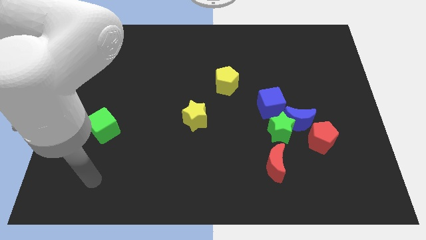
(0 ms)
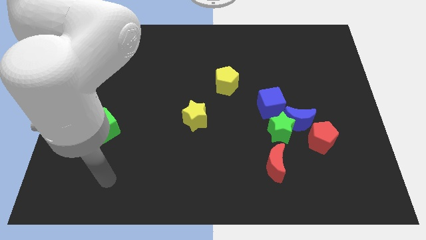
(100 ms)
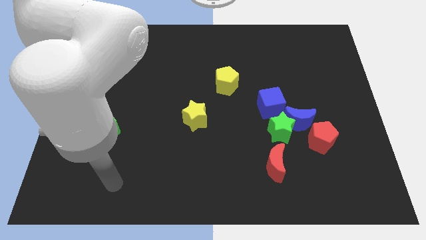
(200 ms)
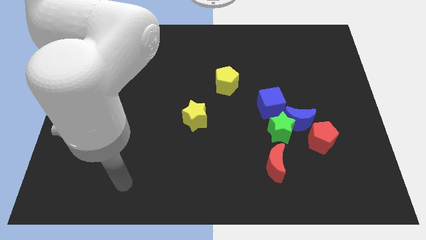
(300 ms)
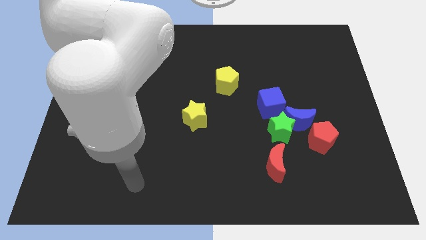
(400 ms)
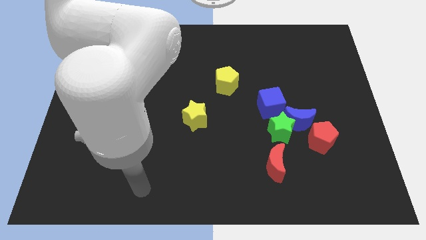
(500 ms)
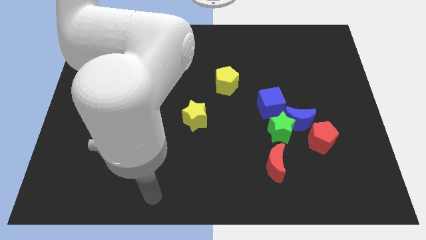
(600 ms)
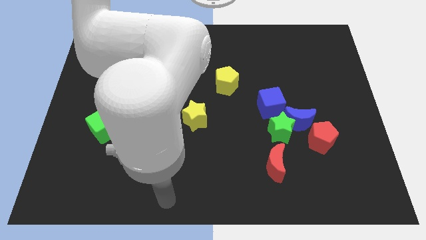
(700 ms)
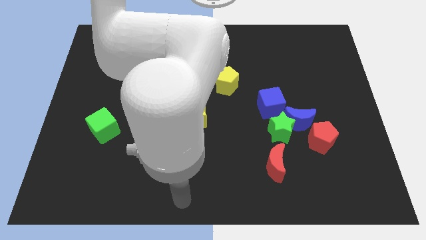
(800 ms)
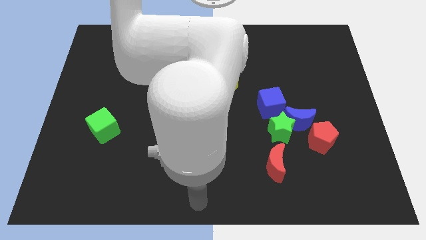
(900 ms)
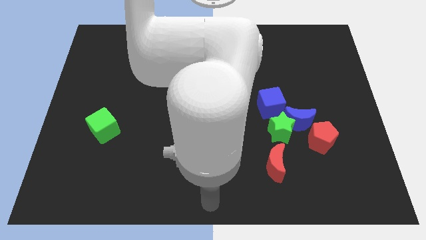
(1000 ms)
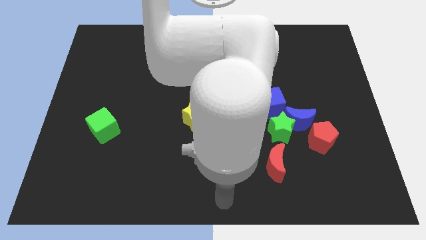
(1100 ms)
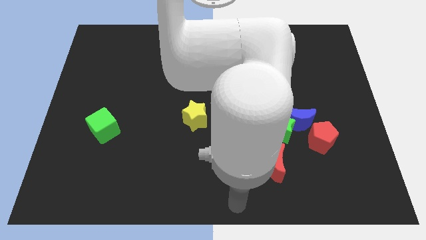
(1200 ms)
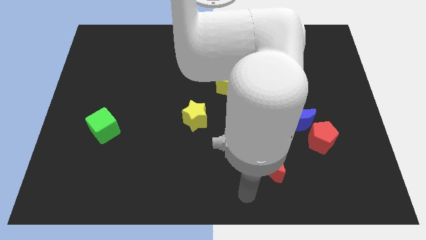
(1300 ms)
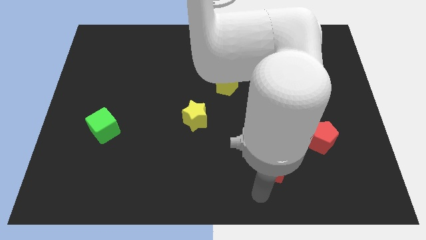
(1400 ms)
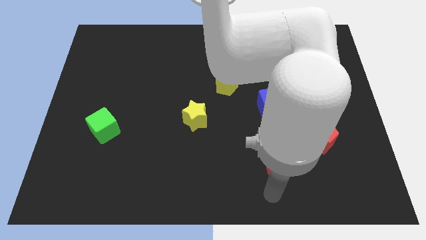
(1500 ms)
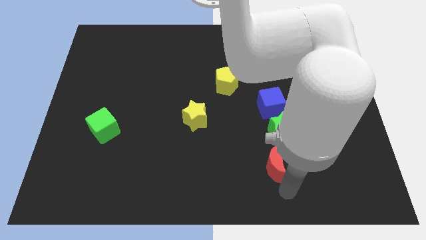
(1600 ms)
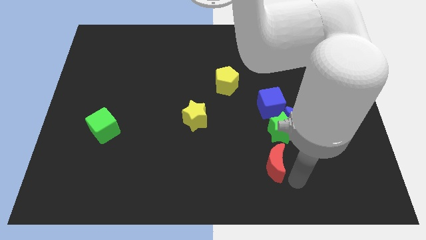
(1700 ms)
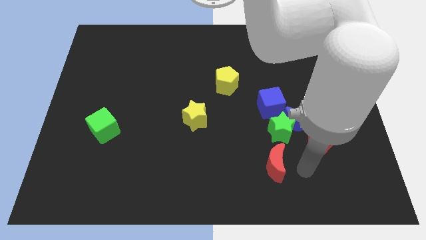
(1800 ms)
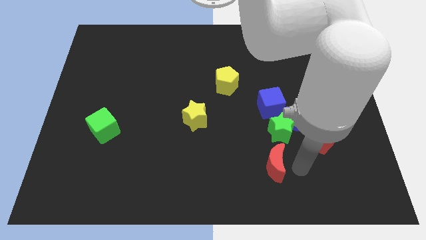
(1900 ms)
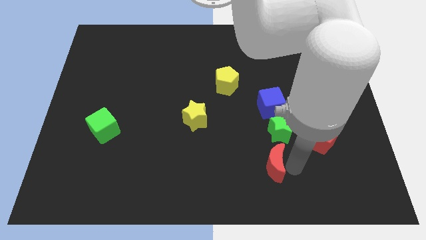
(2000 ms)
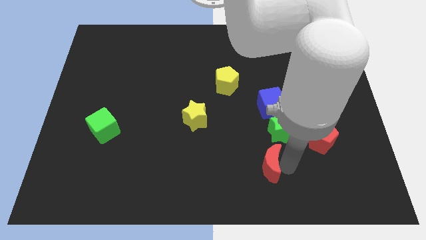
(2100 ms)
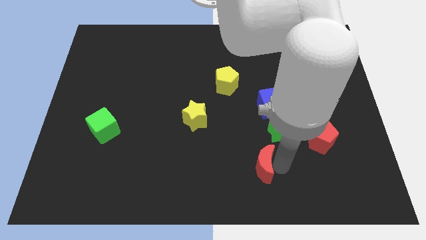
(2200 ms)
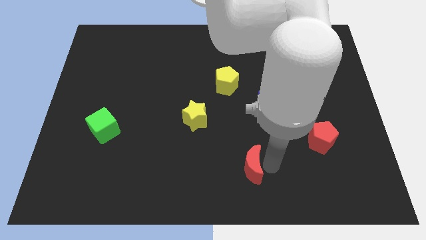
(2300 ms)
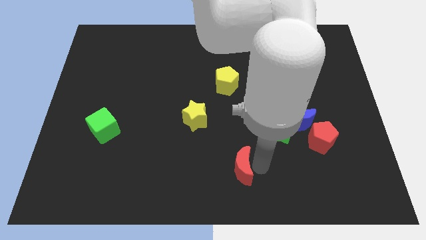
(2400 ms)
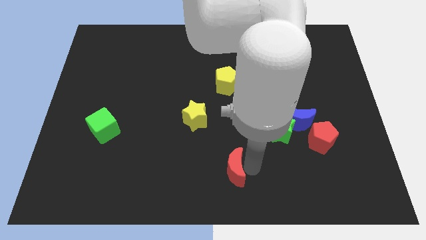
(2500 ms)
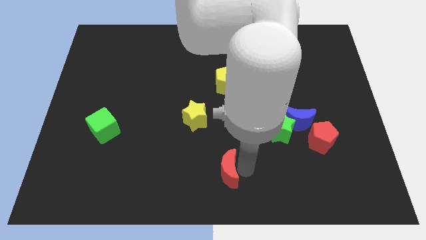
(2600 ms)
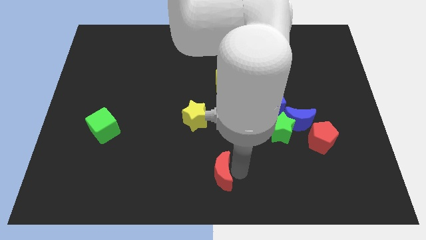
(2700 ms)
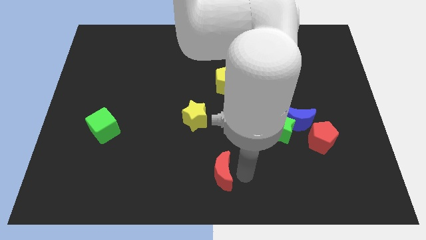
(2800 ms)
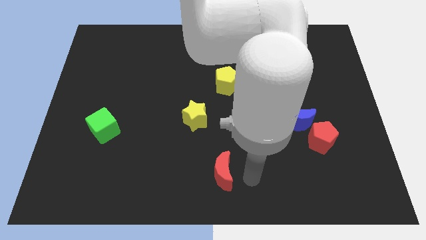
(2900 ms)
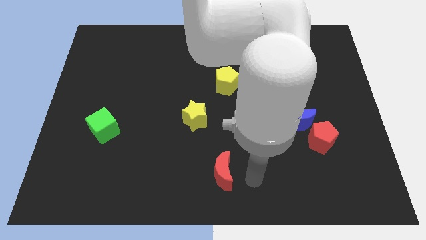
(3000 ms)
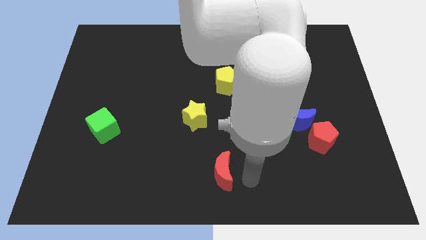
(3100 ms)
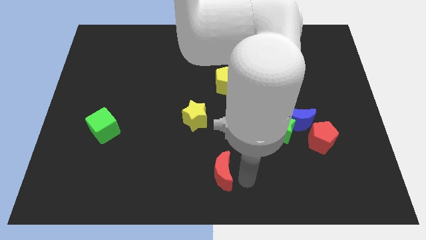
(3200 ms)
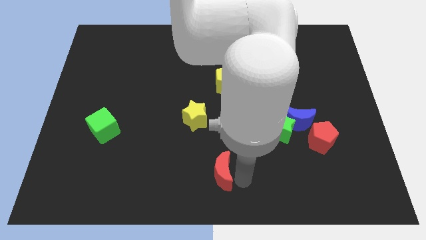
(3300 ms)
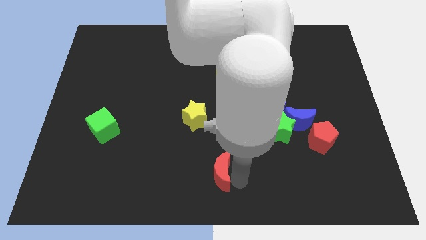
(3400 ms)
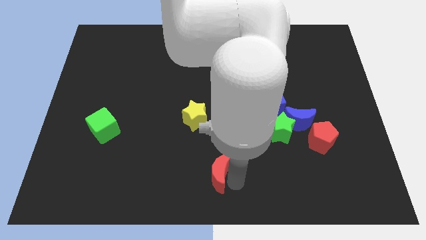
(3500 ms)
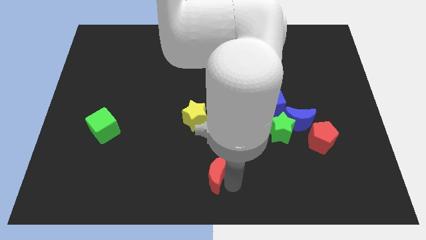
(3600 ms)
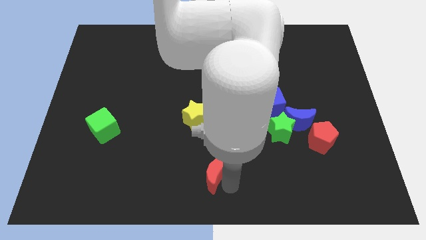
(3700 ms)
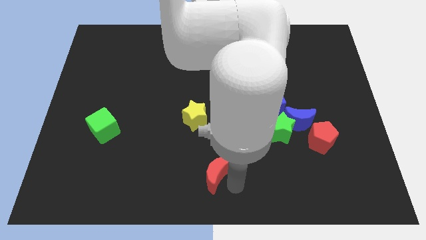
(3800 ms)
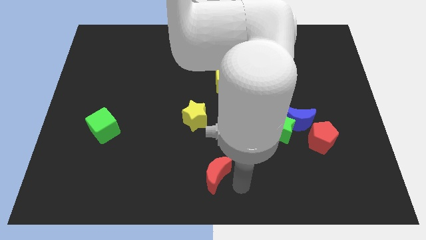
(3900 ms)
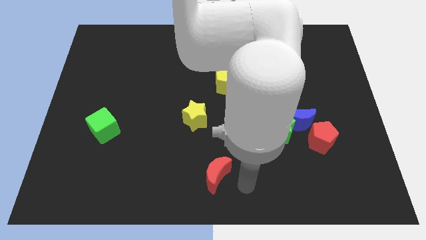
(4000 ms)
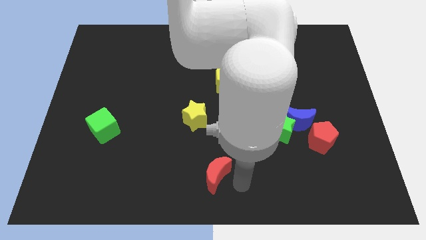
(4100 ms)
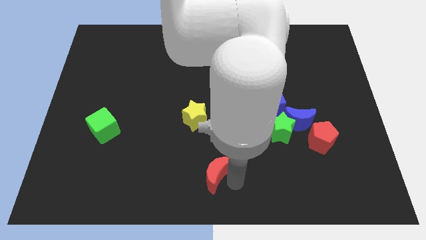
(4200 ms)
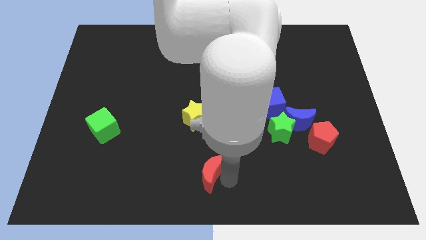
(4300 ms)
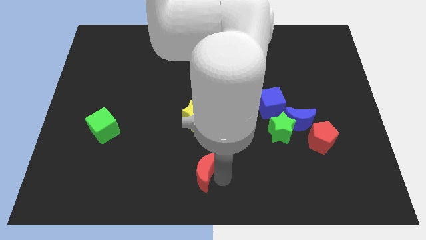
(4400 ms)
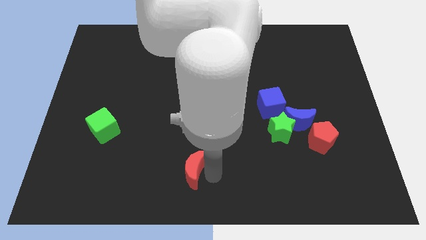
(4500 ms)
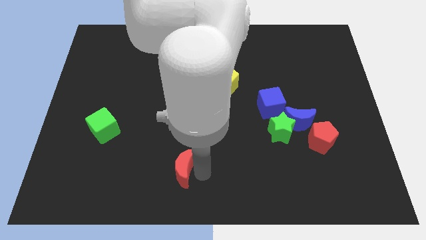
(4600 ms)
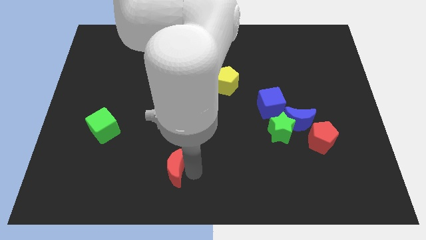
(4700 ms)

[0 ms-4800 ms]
slide the red moon left

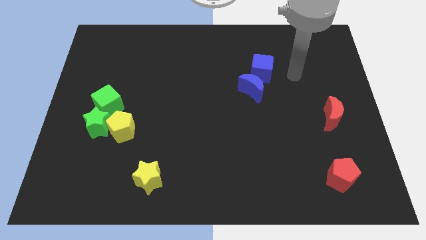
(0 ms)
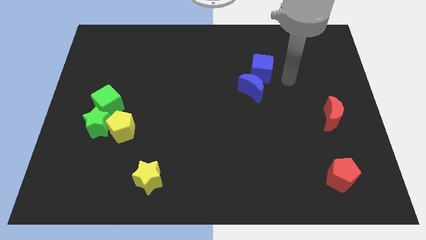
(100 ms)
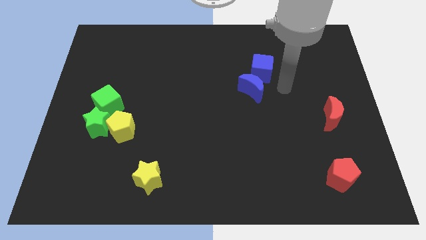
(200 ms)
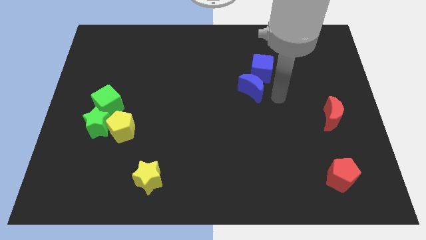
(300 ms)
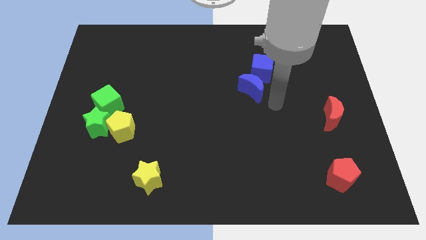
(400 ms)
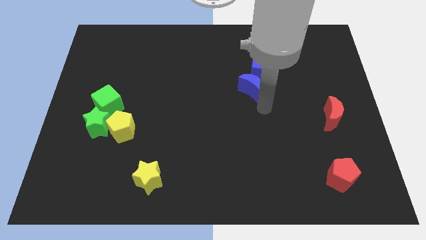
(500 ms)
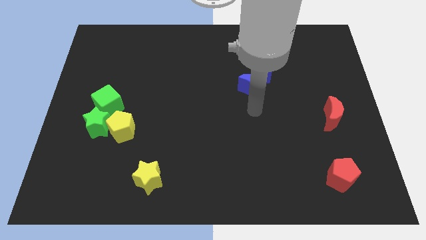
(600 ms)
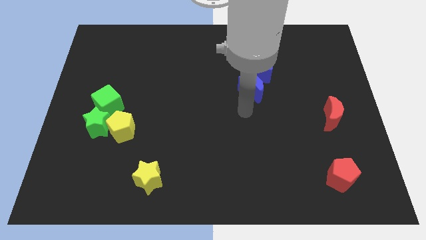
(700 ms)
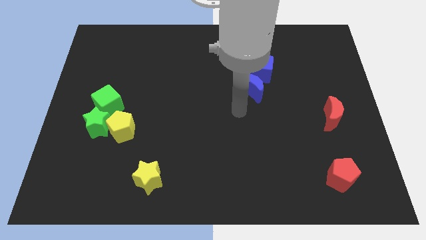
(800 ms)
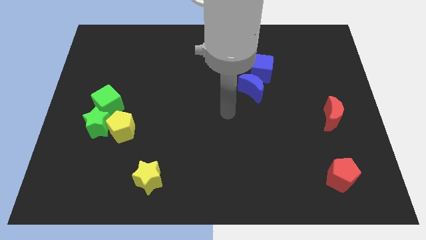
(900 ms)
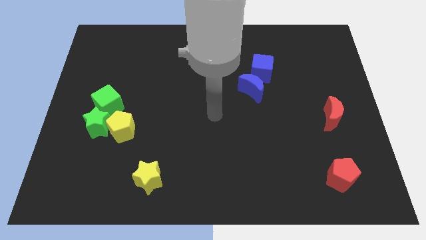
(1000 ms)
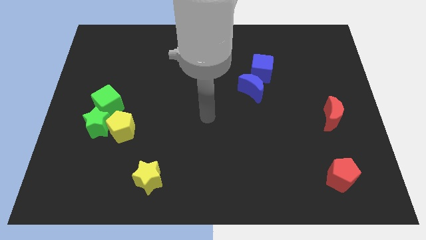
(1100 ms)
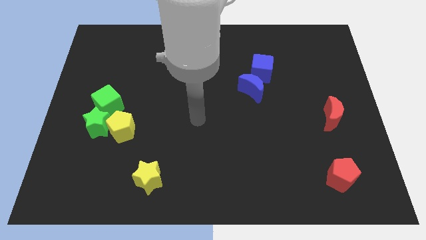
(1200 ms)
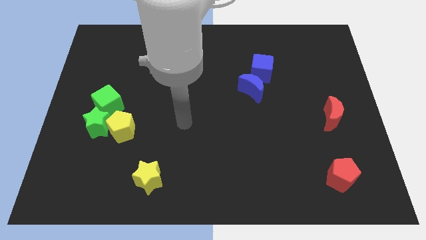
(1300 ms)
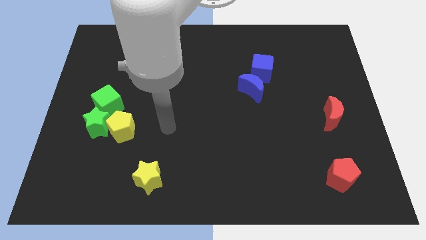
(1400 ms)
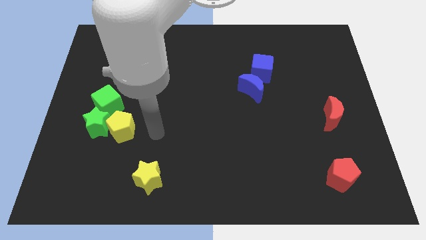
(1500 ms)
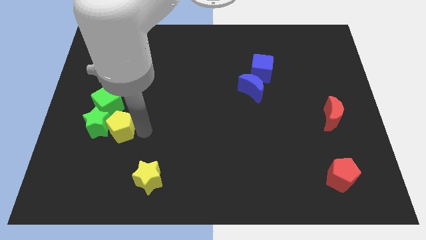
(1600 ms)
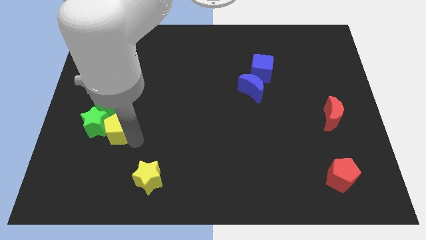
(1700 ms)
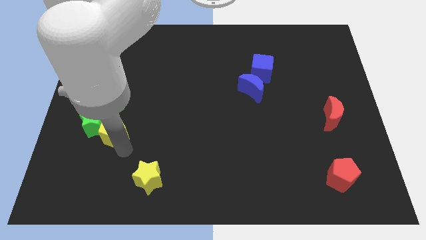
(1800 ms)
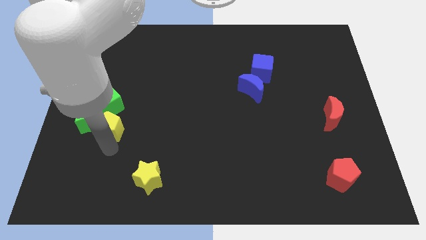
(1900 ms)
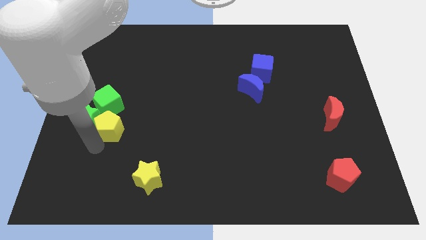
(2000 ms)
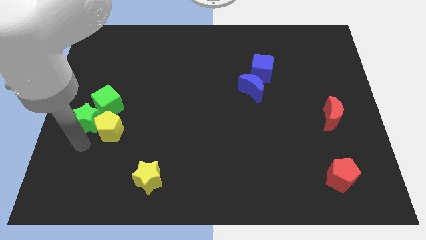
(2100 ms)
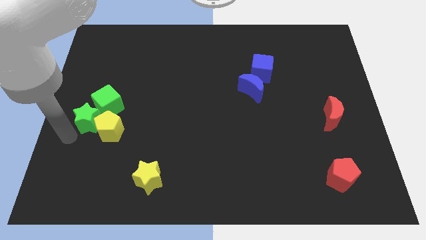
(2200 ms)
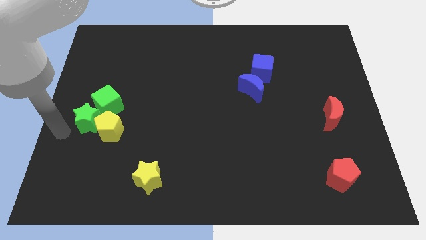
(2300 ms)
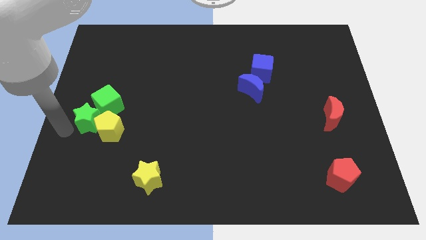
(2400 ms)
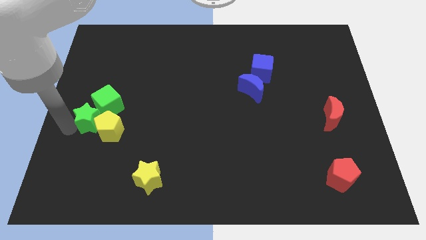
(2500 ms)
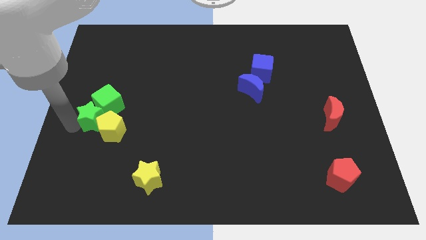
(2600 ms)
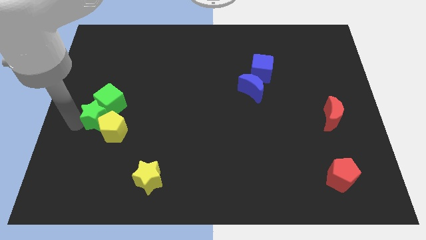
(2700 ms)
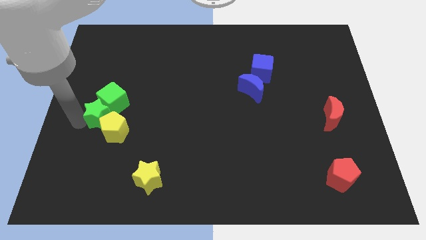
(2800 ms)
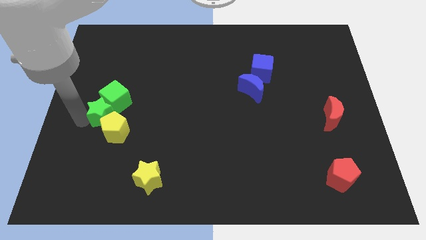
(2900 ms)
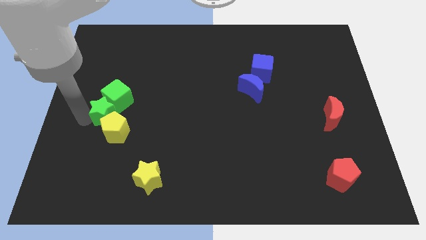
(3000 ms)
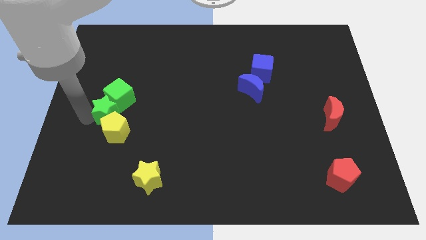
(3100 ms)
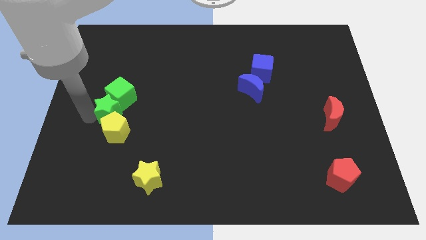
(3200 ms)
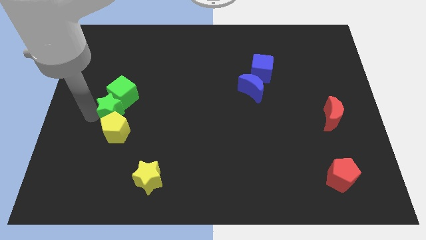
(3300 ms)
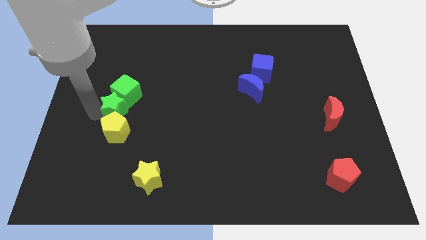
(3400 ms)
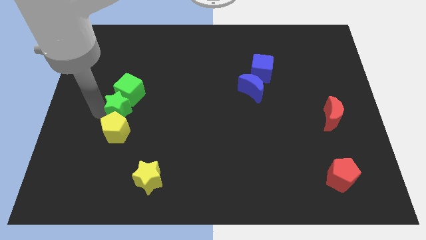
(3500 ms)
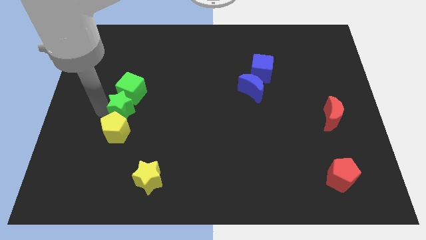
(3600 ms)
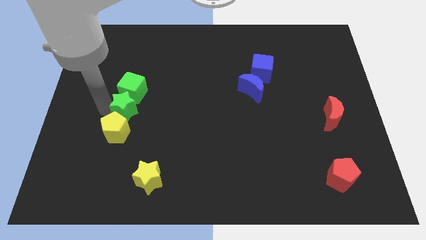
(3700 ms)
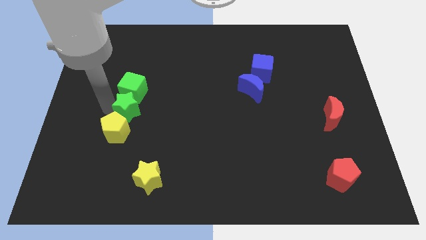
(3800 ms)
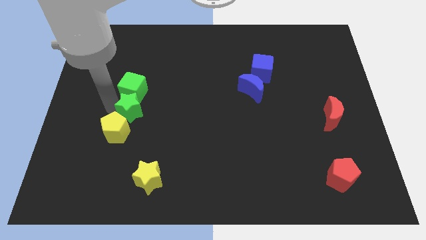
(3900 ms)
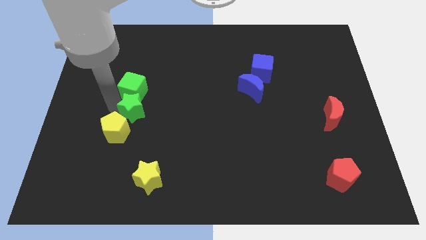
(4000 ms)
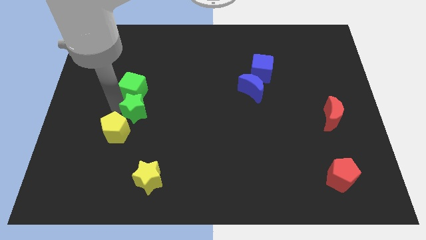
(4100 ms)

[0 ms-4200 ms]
slightly push the green star right
